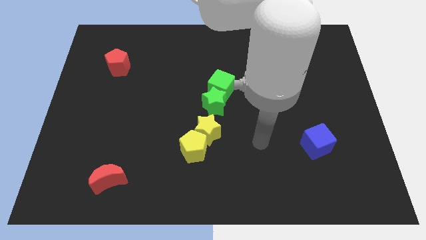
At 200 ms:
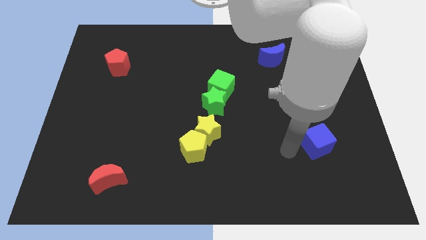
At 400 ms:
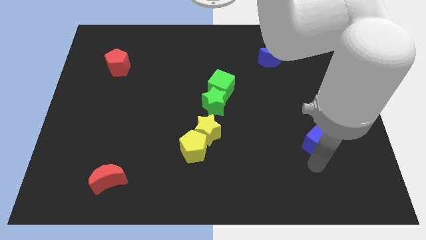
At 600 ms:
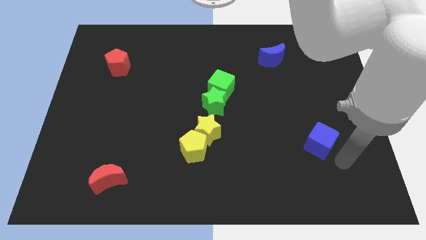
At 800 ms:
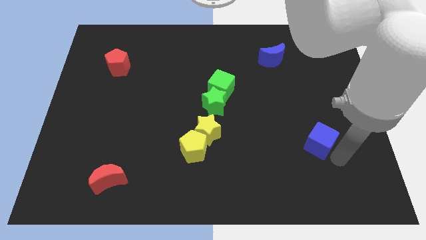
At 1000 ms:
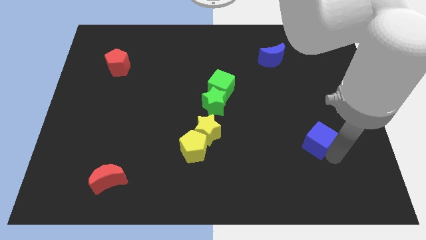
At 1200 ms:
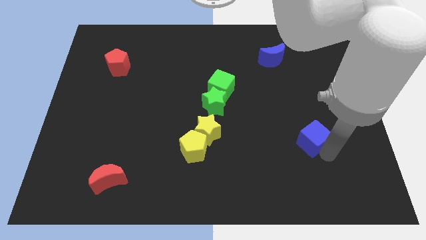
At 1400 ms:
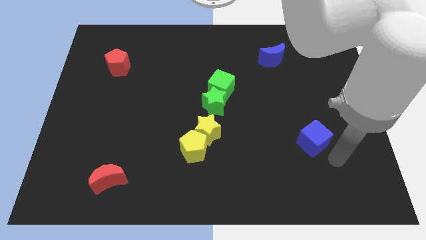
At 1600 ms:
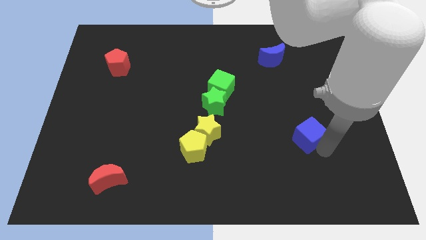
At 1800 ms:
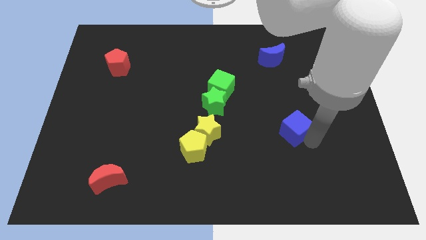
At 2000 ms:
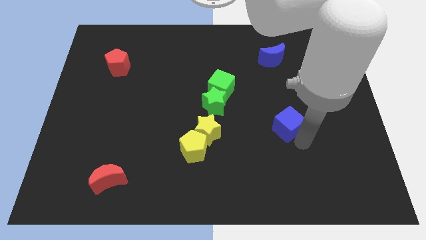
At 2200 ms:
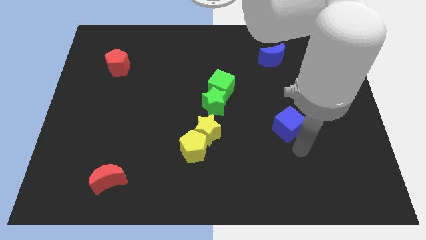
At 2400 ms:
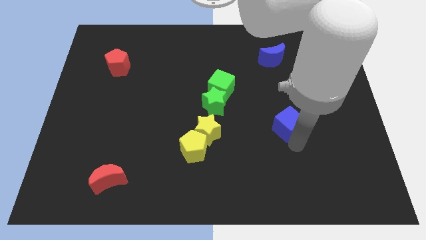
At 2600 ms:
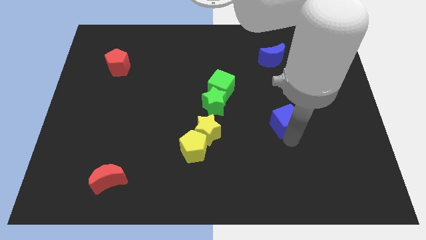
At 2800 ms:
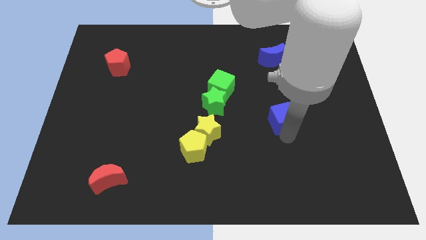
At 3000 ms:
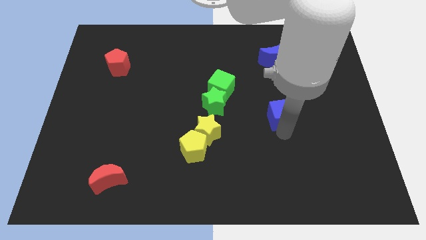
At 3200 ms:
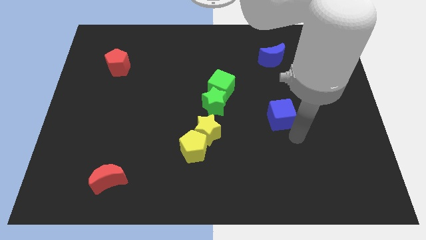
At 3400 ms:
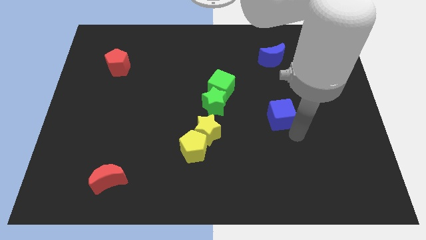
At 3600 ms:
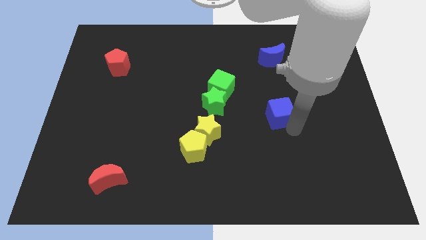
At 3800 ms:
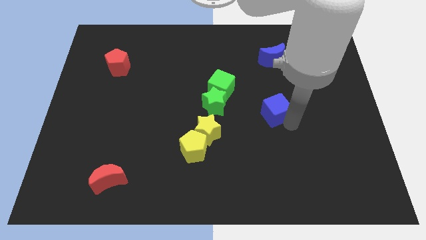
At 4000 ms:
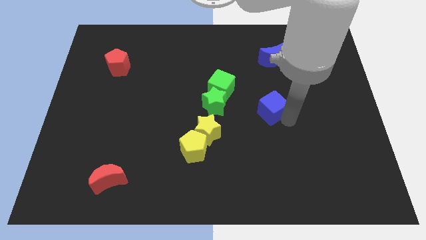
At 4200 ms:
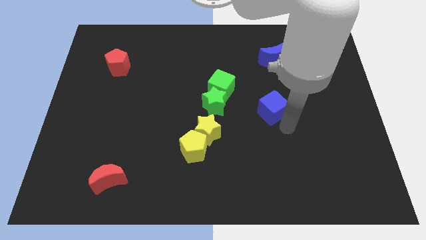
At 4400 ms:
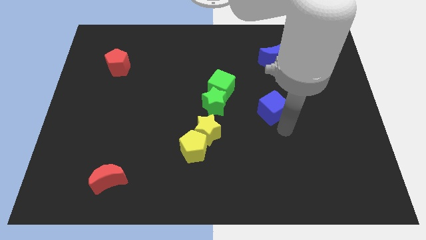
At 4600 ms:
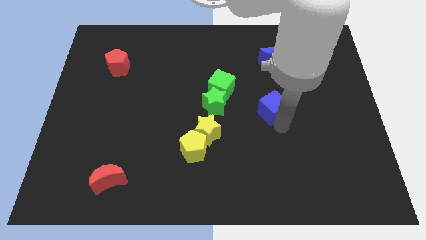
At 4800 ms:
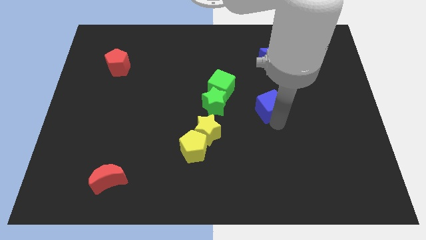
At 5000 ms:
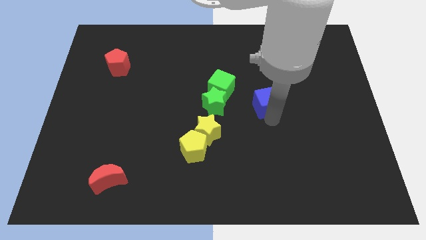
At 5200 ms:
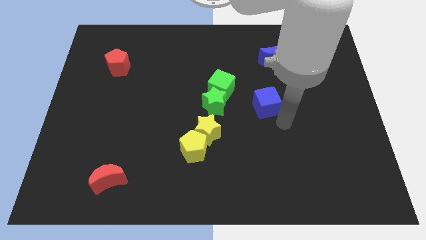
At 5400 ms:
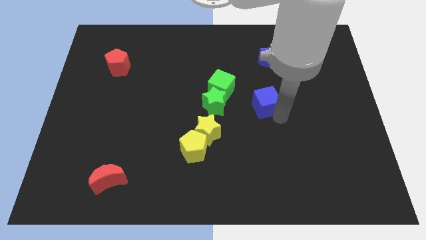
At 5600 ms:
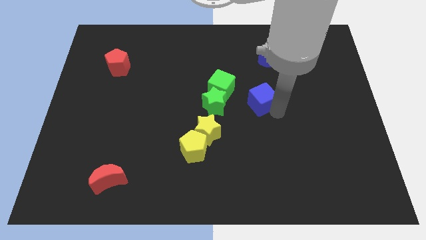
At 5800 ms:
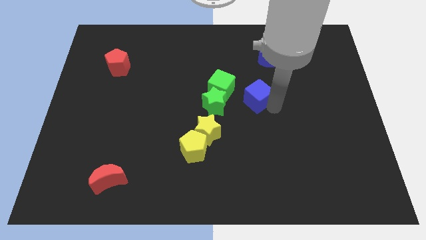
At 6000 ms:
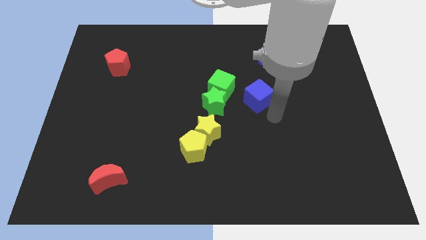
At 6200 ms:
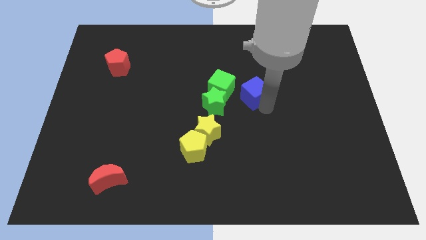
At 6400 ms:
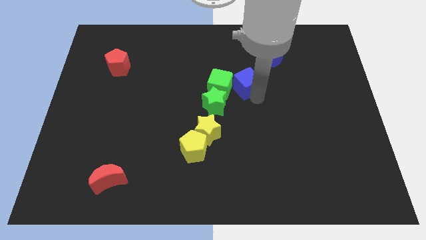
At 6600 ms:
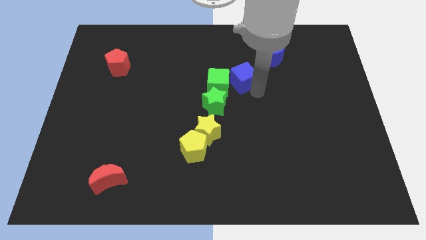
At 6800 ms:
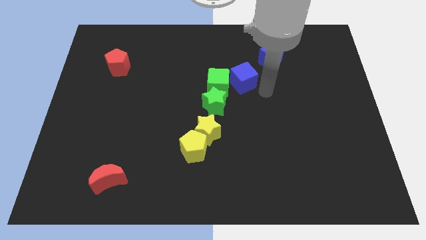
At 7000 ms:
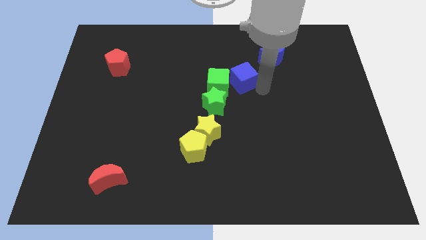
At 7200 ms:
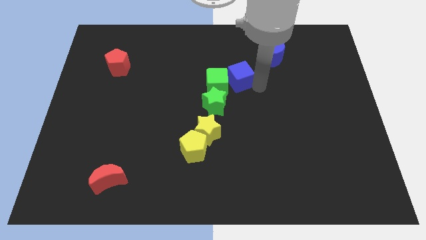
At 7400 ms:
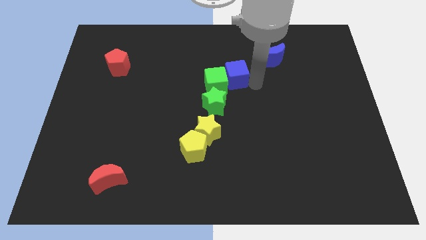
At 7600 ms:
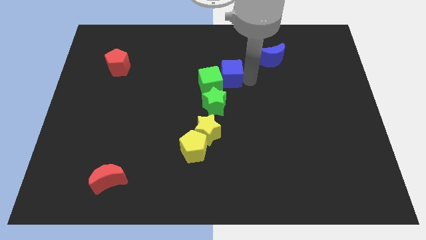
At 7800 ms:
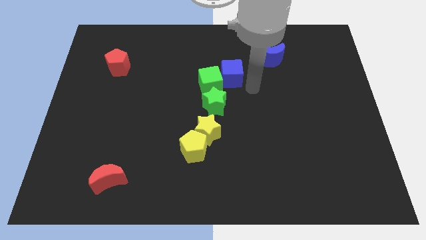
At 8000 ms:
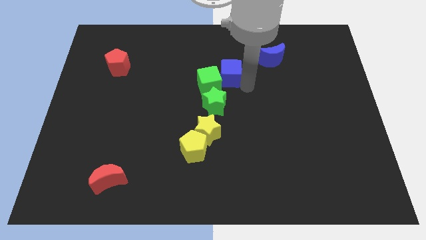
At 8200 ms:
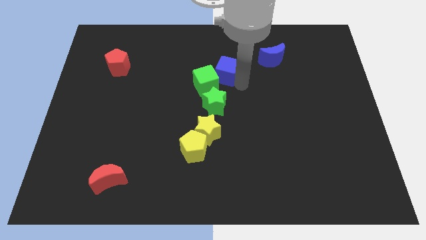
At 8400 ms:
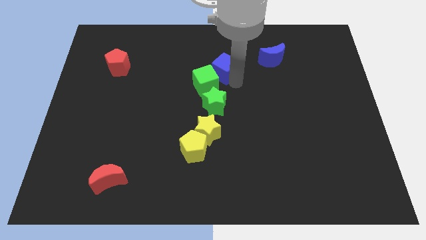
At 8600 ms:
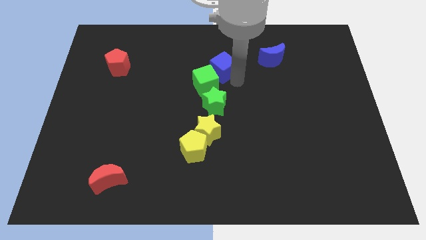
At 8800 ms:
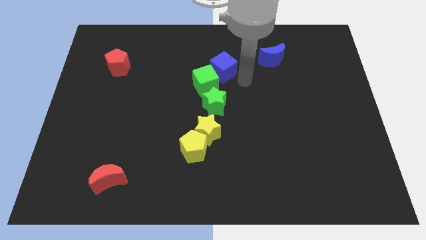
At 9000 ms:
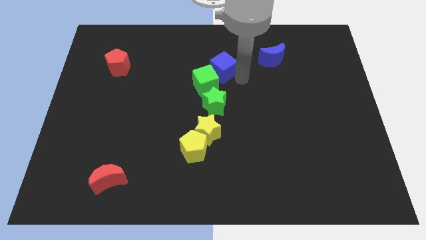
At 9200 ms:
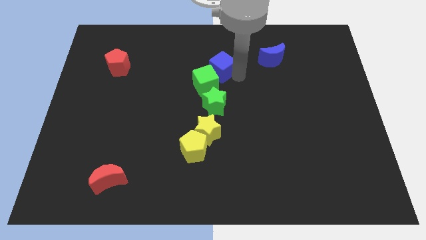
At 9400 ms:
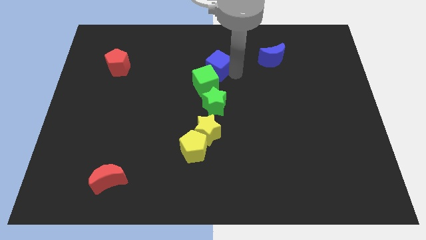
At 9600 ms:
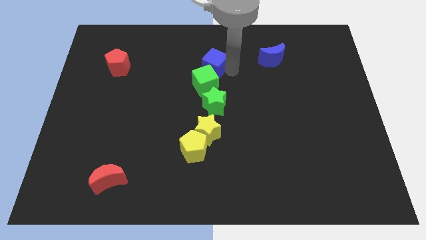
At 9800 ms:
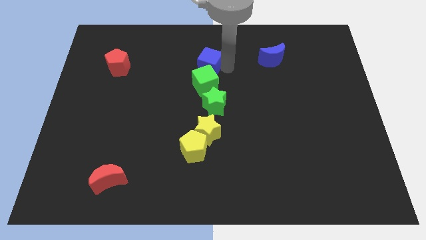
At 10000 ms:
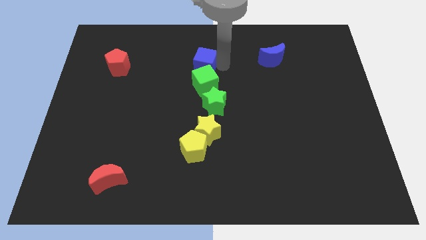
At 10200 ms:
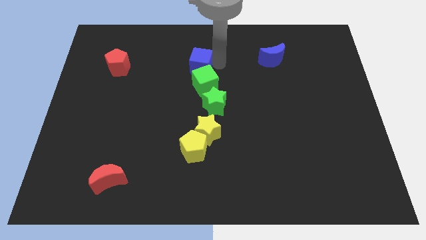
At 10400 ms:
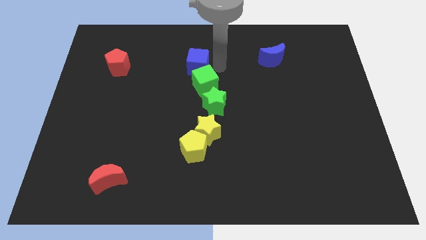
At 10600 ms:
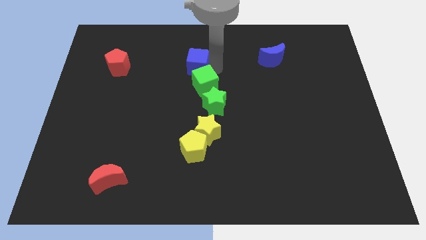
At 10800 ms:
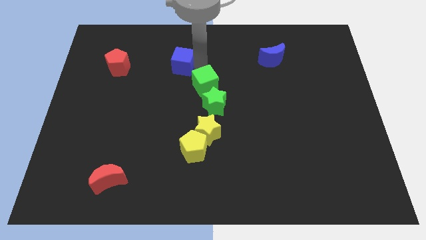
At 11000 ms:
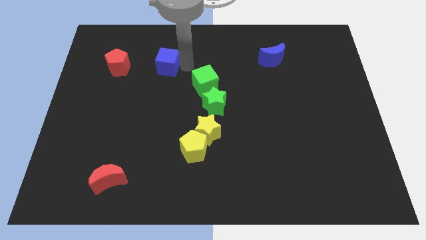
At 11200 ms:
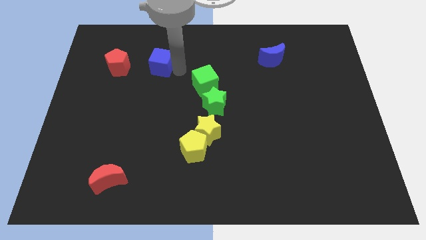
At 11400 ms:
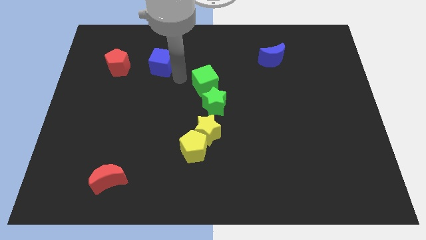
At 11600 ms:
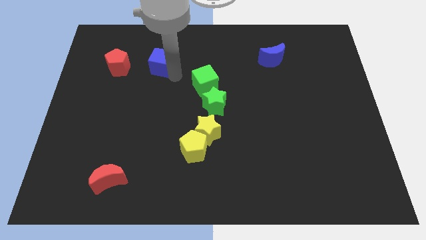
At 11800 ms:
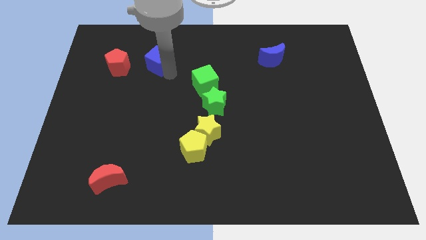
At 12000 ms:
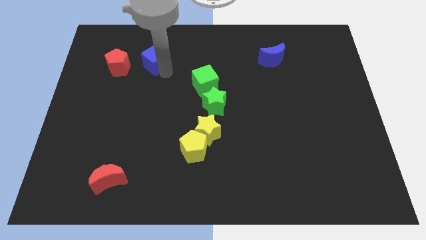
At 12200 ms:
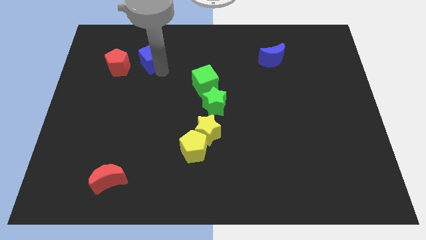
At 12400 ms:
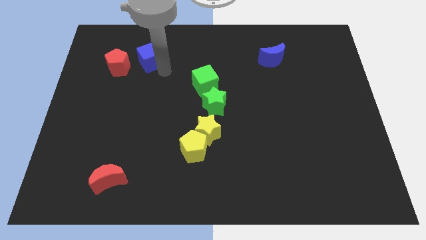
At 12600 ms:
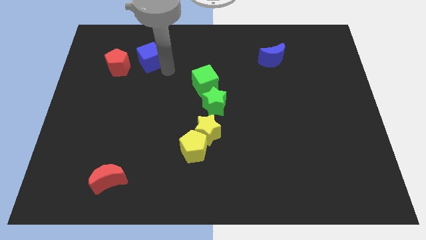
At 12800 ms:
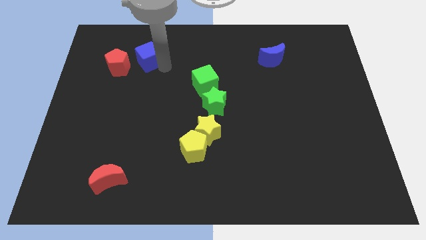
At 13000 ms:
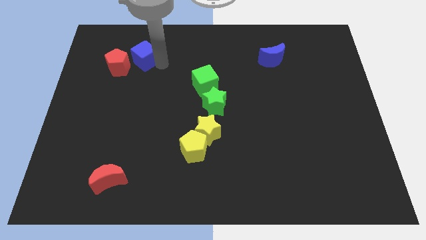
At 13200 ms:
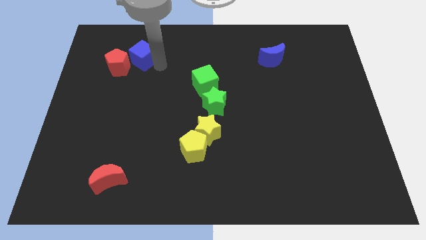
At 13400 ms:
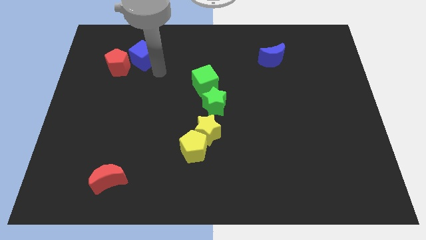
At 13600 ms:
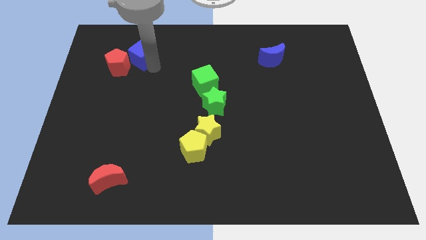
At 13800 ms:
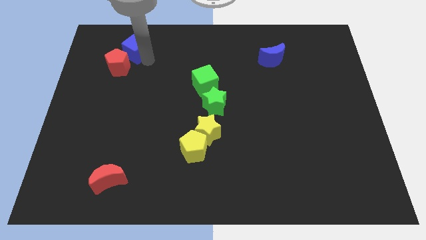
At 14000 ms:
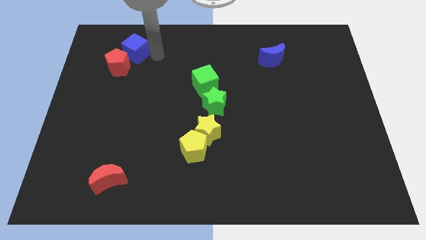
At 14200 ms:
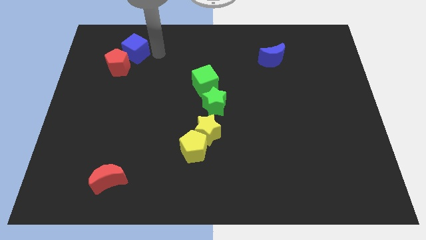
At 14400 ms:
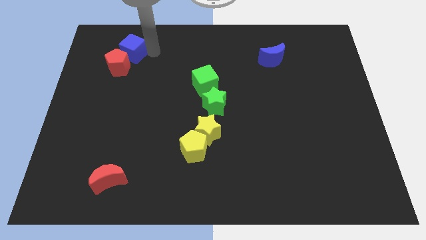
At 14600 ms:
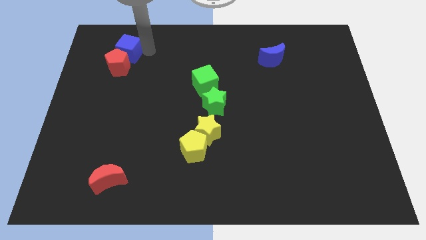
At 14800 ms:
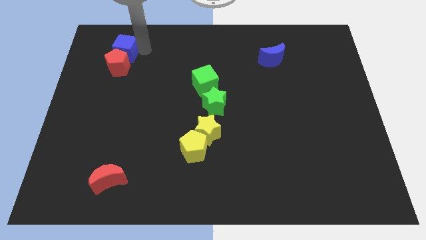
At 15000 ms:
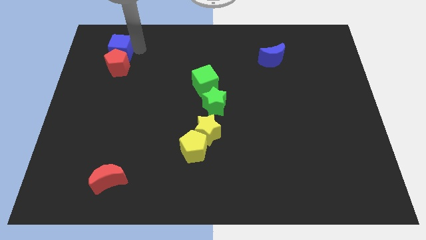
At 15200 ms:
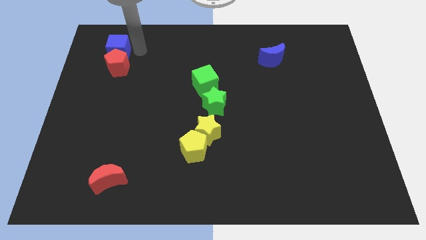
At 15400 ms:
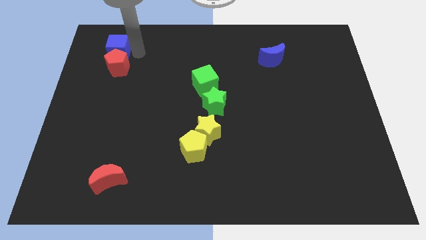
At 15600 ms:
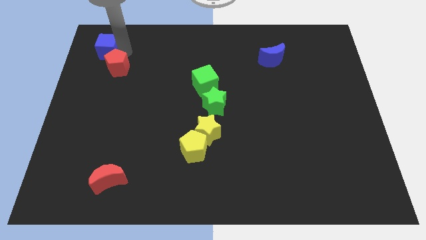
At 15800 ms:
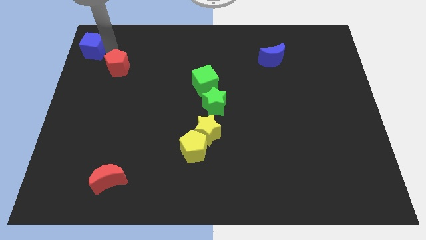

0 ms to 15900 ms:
slide the blue cube to the upper left corner
